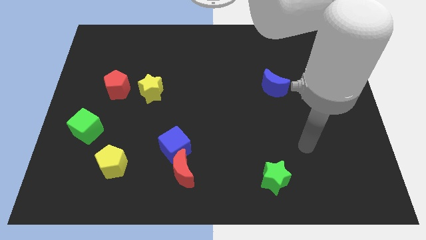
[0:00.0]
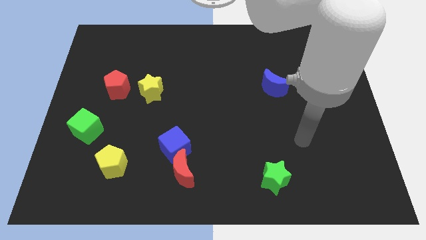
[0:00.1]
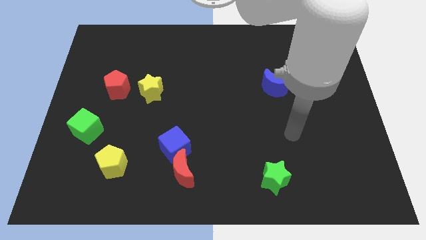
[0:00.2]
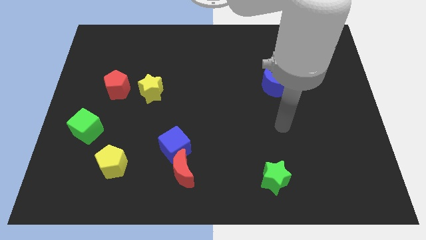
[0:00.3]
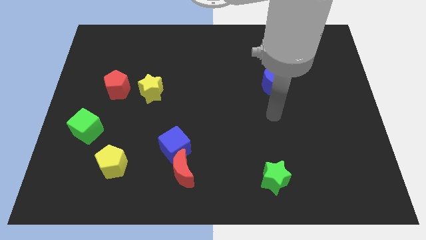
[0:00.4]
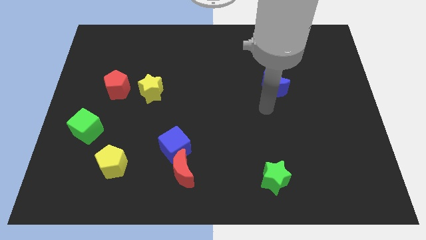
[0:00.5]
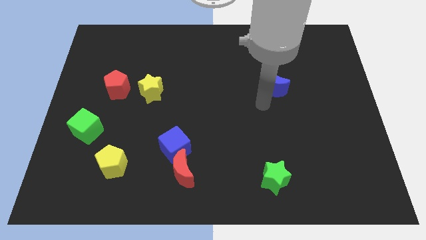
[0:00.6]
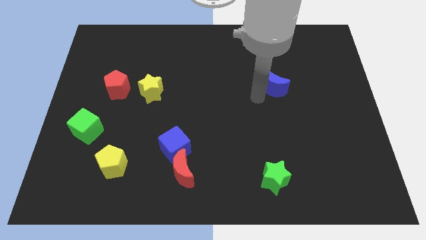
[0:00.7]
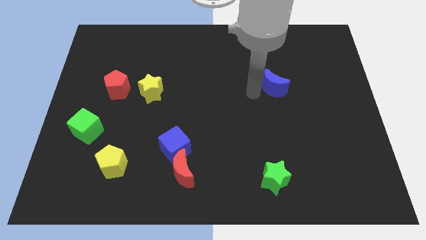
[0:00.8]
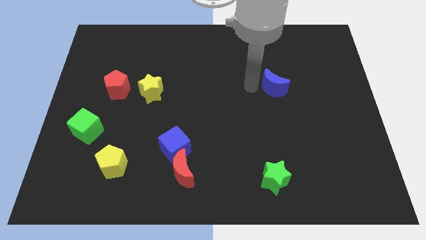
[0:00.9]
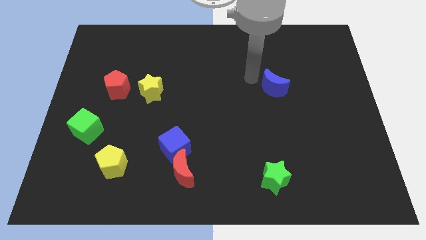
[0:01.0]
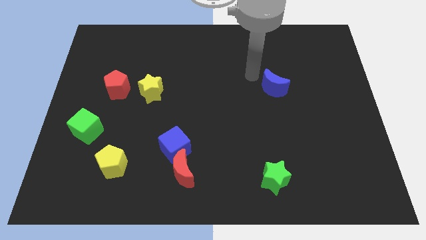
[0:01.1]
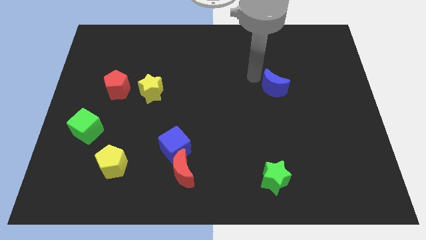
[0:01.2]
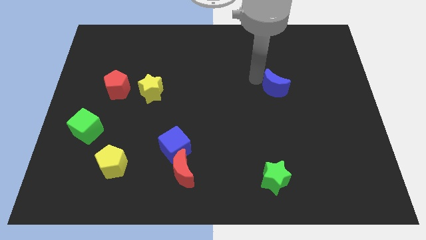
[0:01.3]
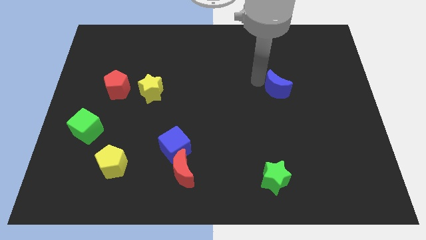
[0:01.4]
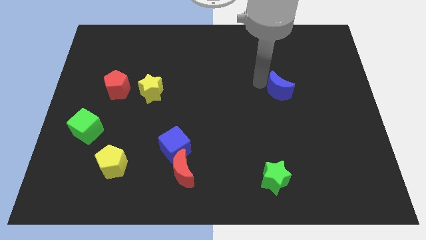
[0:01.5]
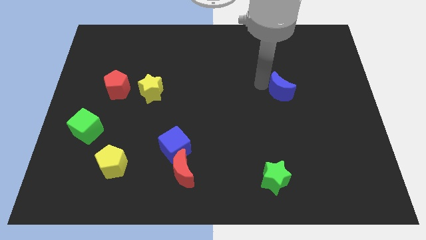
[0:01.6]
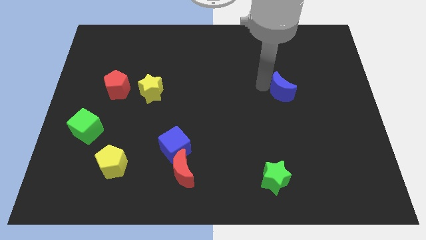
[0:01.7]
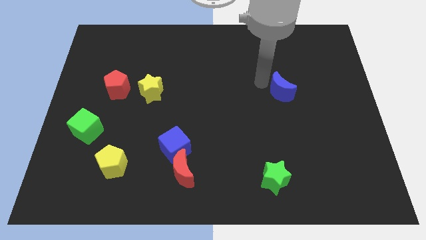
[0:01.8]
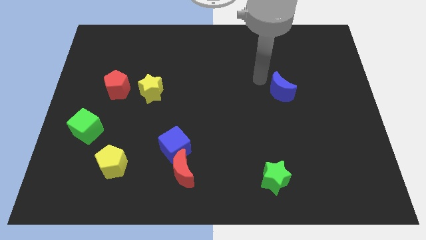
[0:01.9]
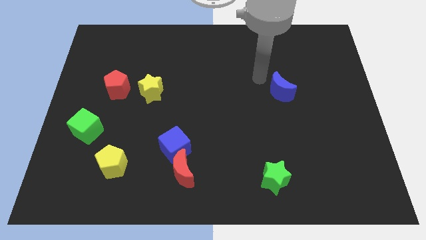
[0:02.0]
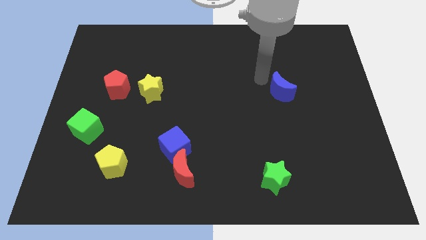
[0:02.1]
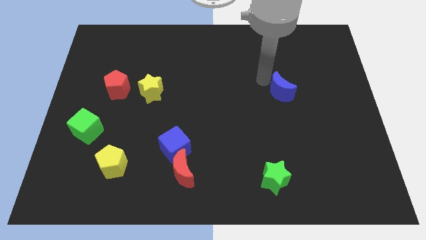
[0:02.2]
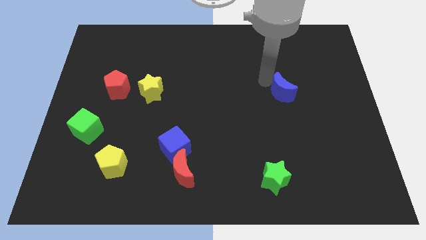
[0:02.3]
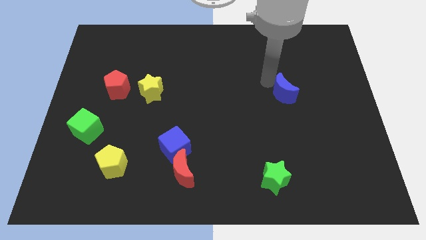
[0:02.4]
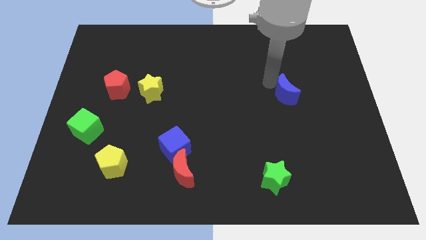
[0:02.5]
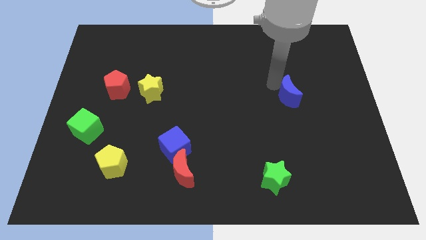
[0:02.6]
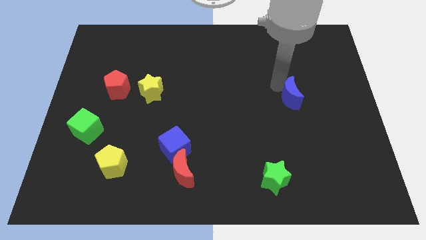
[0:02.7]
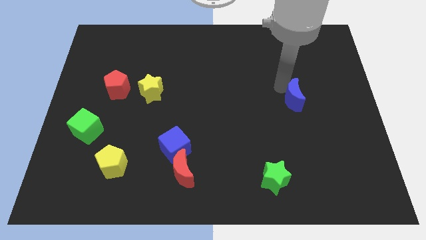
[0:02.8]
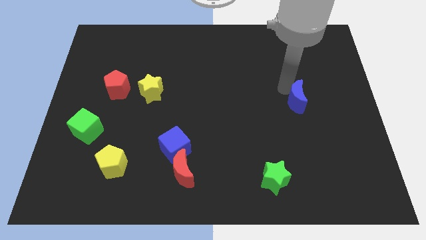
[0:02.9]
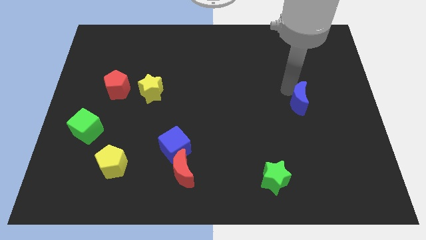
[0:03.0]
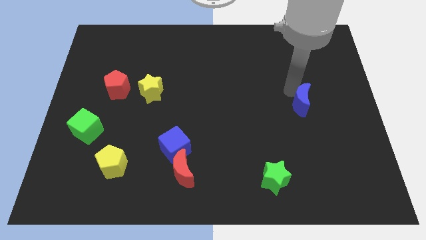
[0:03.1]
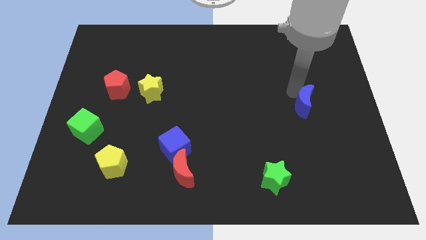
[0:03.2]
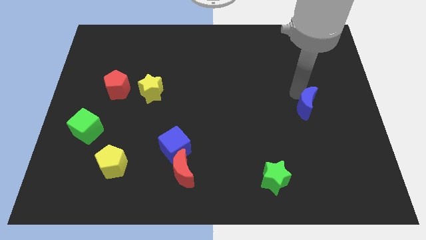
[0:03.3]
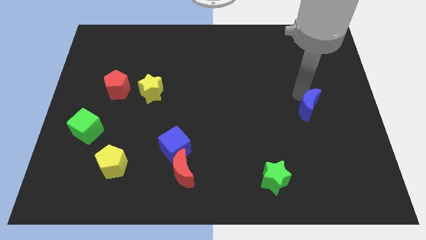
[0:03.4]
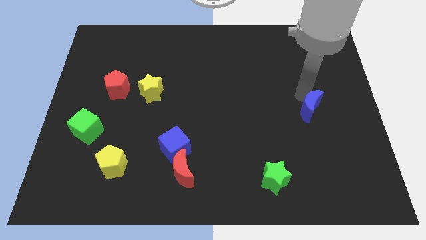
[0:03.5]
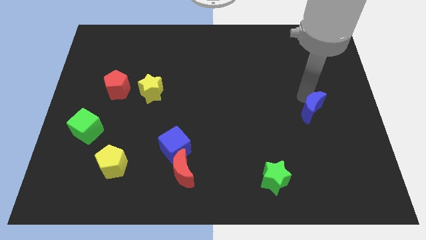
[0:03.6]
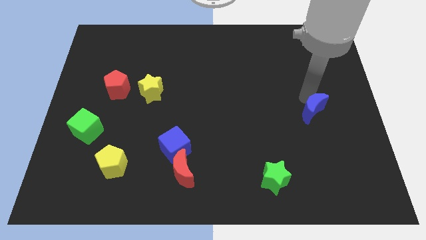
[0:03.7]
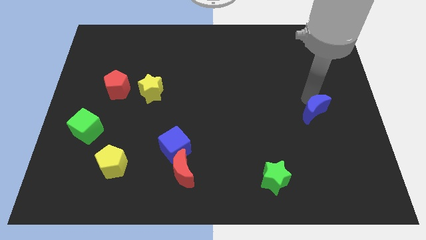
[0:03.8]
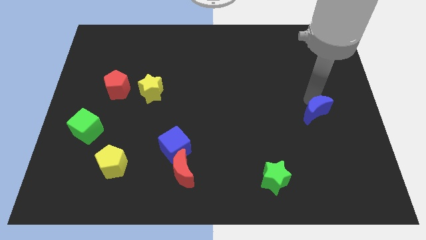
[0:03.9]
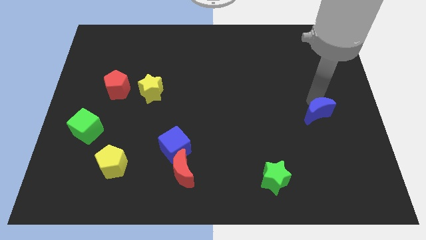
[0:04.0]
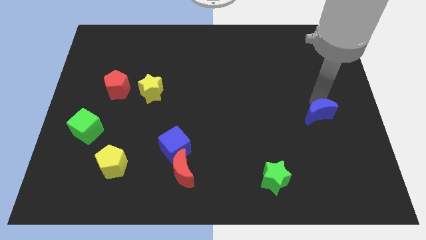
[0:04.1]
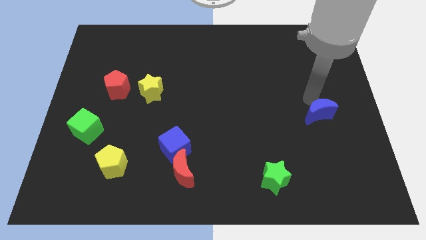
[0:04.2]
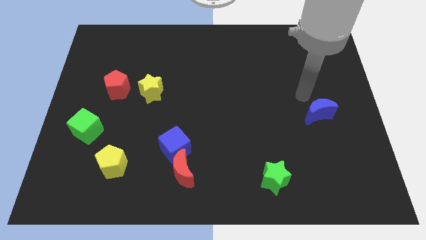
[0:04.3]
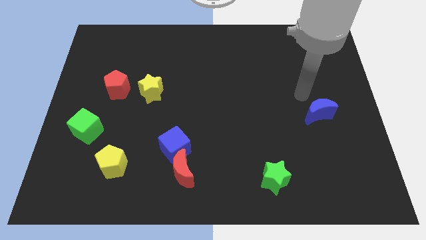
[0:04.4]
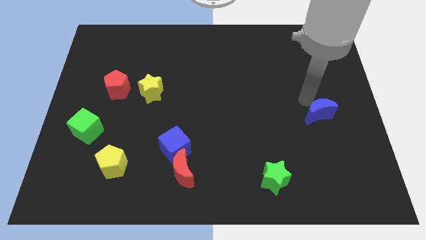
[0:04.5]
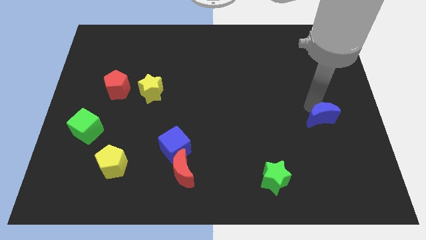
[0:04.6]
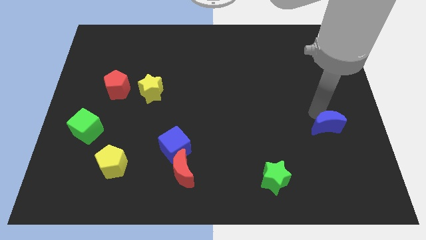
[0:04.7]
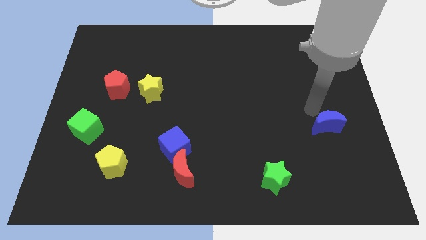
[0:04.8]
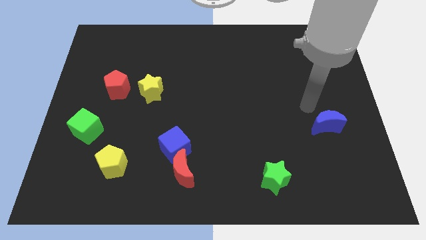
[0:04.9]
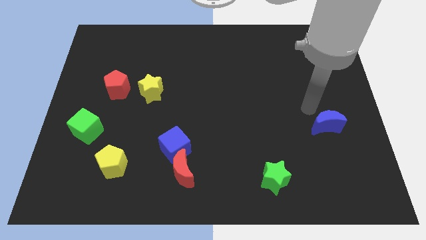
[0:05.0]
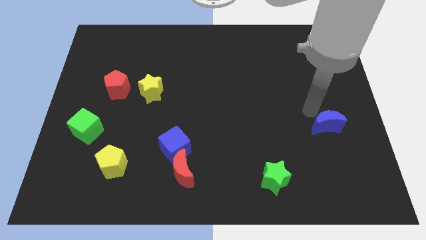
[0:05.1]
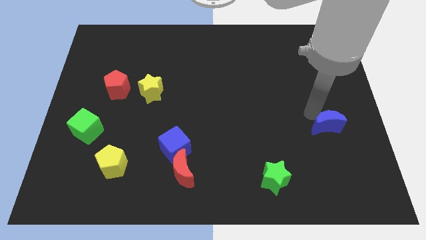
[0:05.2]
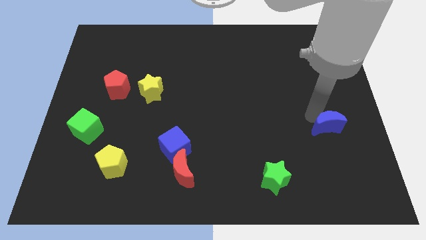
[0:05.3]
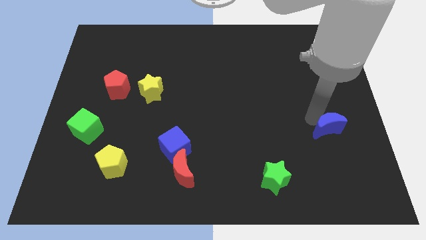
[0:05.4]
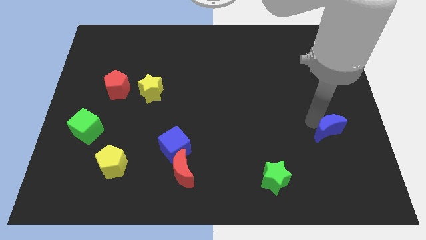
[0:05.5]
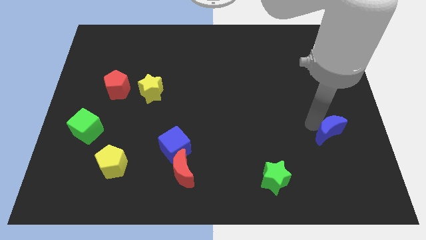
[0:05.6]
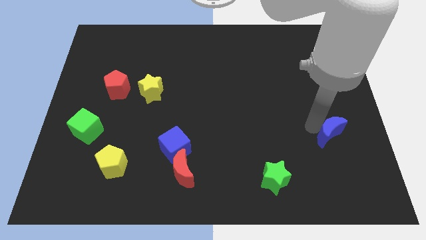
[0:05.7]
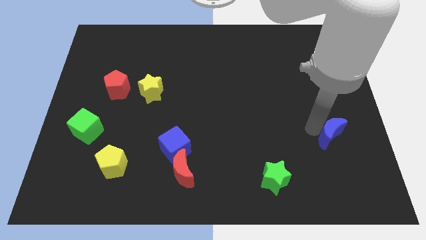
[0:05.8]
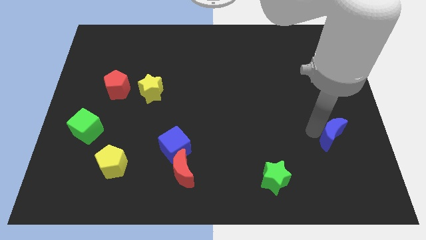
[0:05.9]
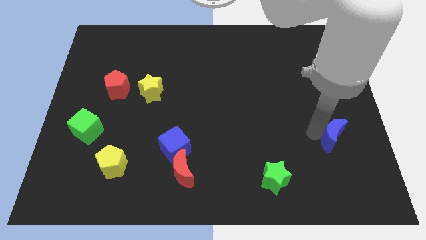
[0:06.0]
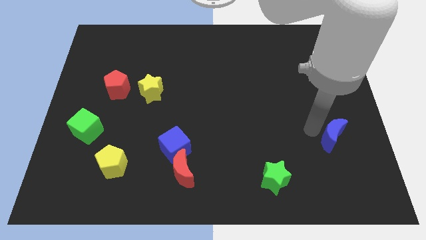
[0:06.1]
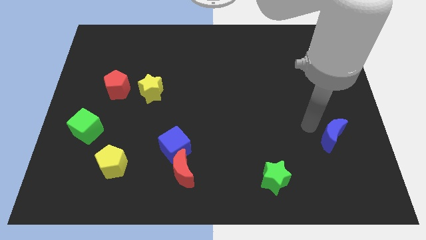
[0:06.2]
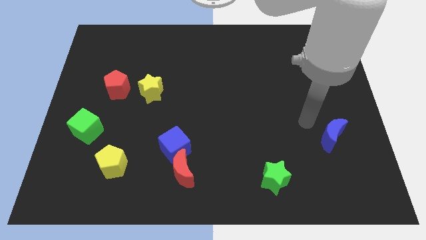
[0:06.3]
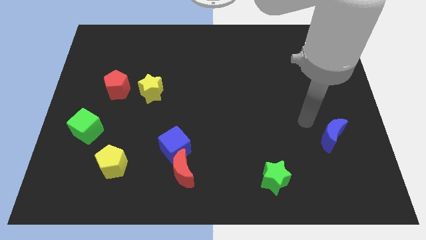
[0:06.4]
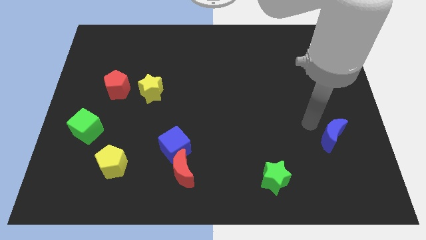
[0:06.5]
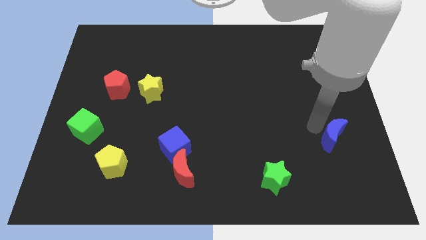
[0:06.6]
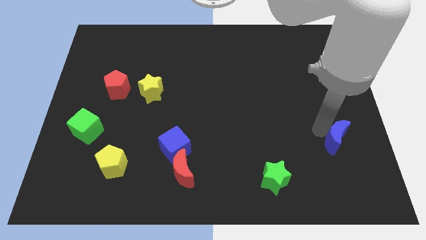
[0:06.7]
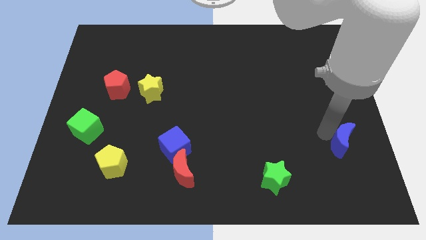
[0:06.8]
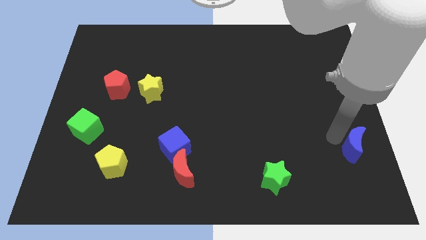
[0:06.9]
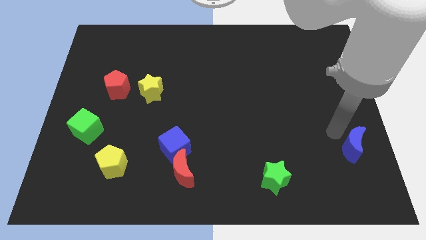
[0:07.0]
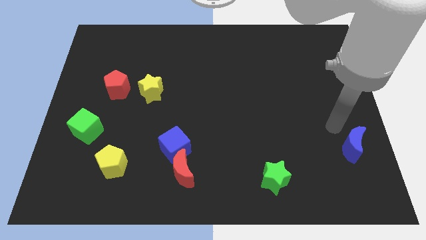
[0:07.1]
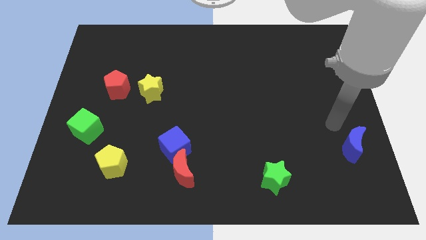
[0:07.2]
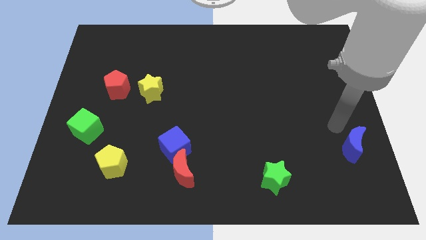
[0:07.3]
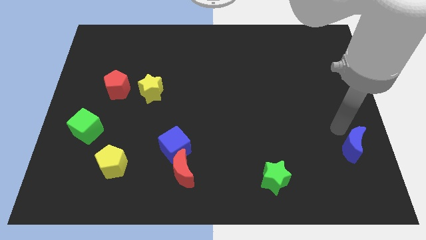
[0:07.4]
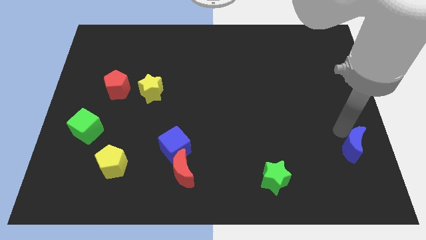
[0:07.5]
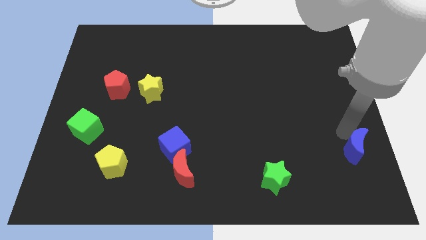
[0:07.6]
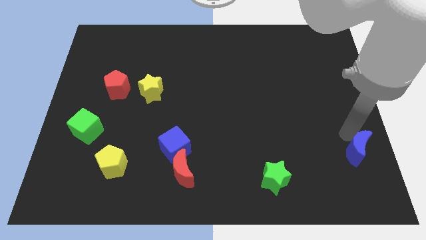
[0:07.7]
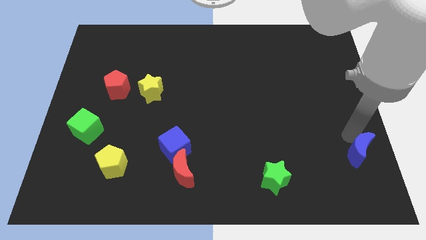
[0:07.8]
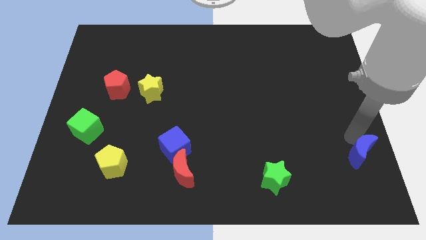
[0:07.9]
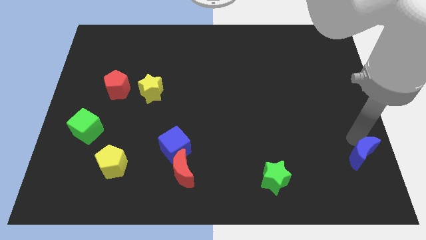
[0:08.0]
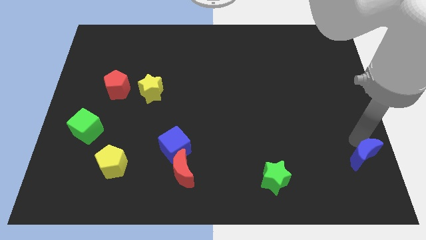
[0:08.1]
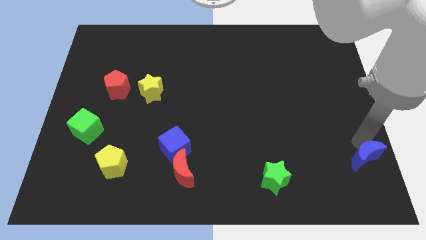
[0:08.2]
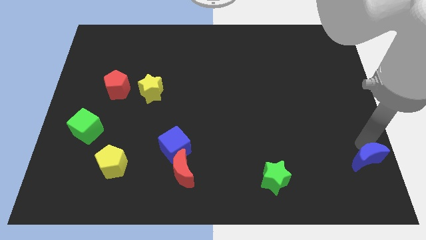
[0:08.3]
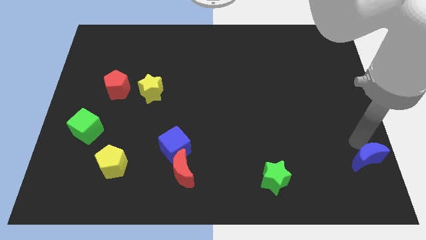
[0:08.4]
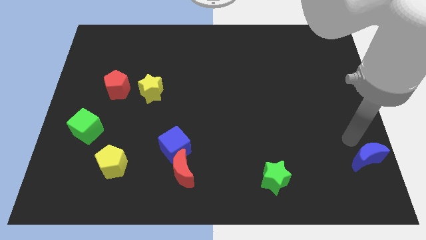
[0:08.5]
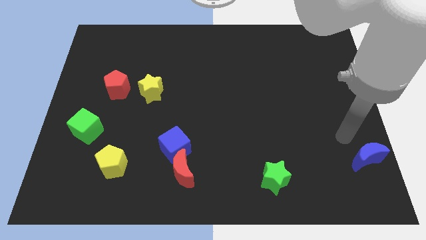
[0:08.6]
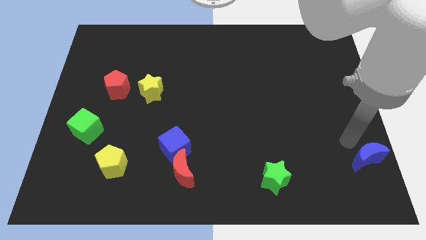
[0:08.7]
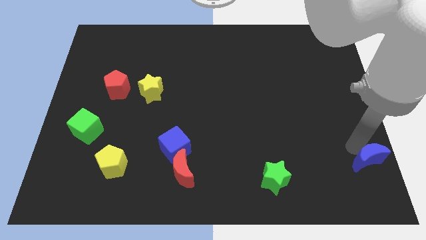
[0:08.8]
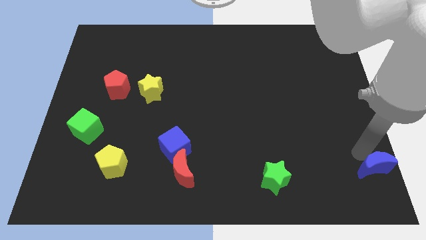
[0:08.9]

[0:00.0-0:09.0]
push the blue moon to the bottom right of the board
